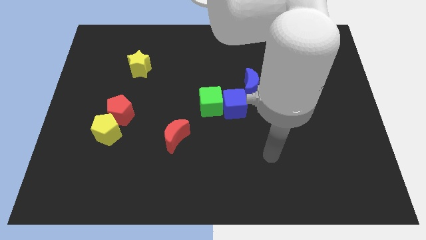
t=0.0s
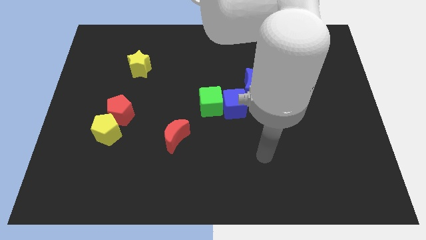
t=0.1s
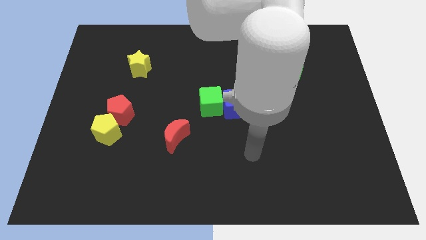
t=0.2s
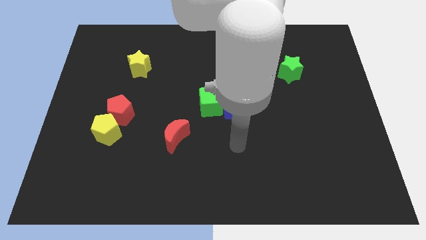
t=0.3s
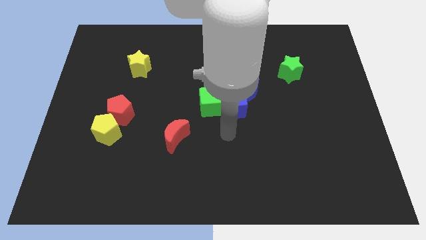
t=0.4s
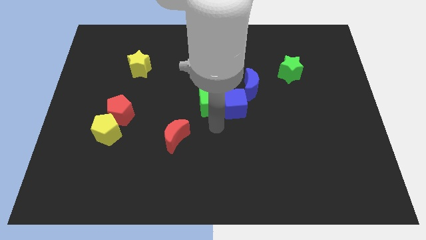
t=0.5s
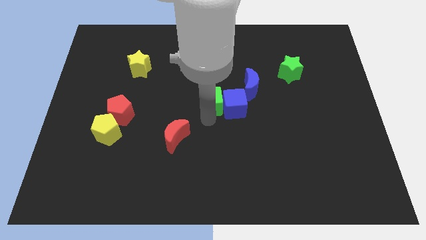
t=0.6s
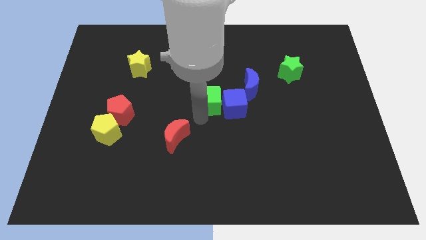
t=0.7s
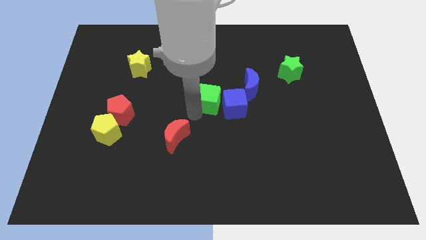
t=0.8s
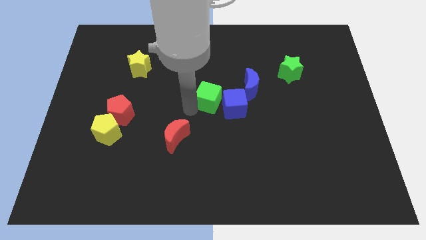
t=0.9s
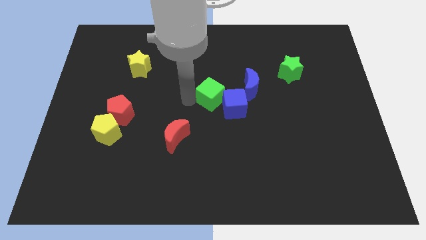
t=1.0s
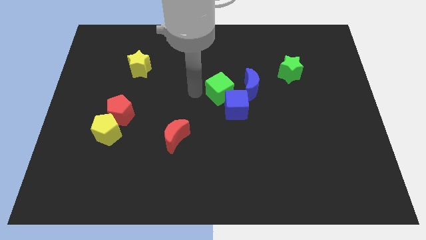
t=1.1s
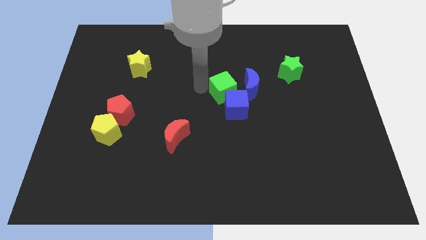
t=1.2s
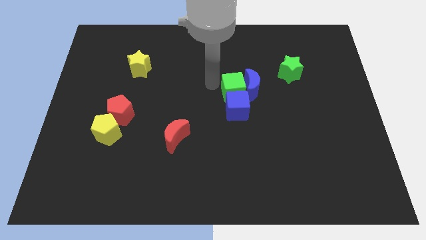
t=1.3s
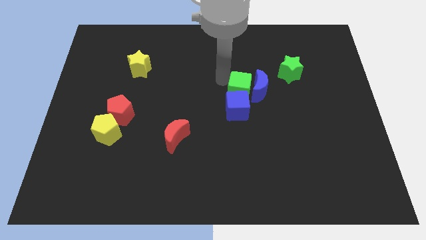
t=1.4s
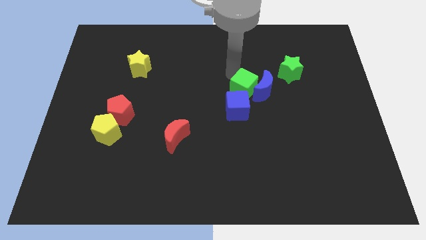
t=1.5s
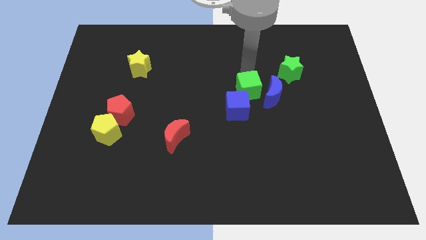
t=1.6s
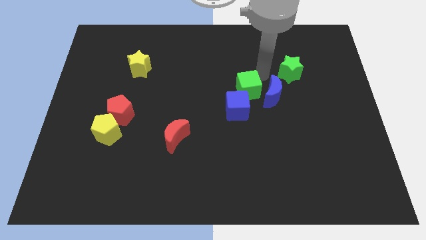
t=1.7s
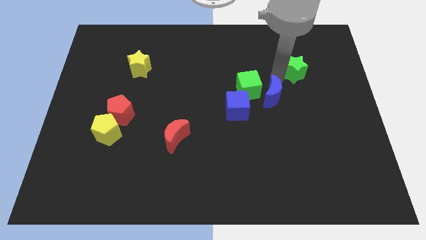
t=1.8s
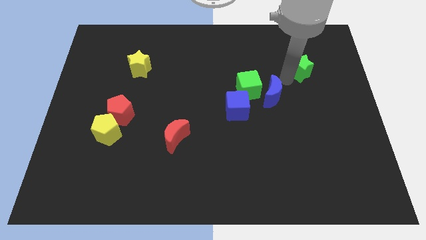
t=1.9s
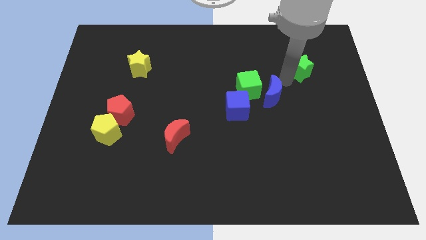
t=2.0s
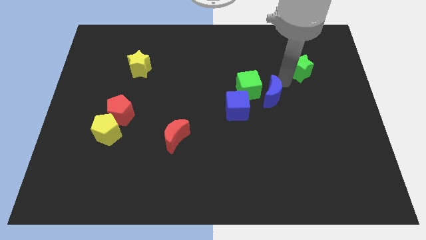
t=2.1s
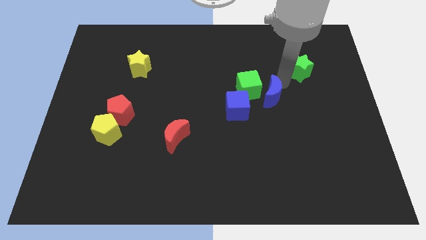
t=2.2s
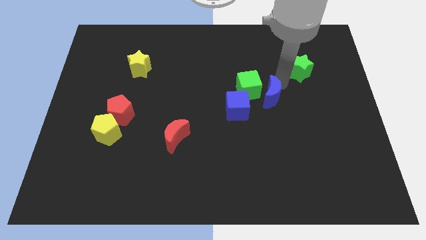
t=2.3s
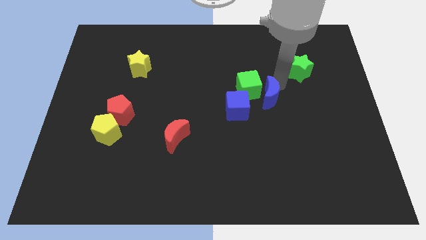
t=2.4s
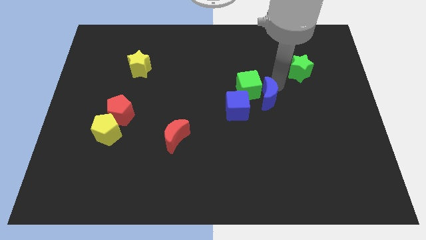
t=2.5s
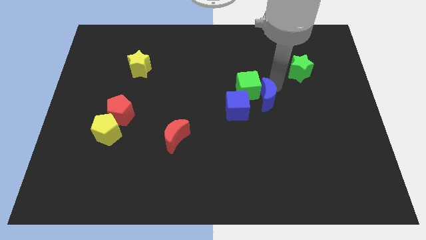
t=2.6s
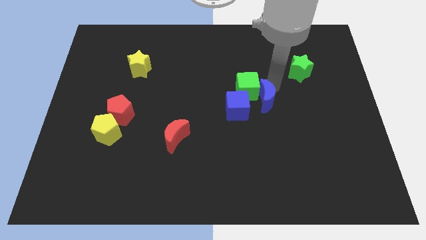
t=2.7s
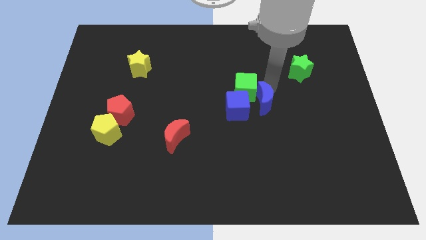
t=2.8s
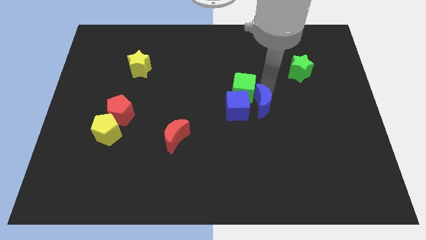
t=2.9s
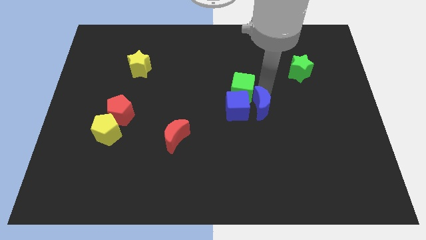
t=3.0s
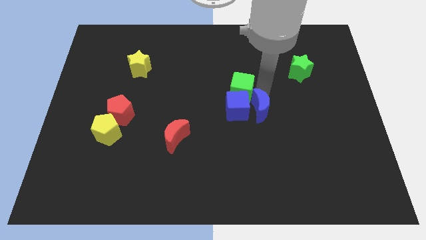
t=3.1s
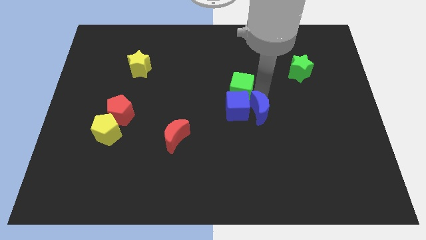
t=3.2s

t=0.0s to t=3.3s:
move the blue moon a little bit downwards

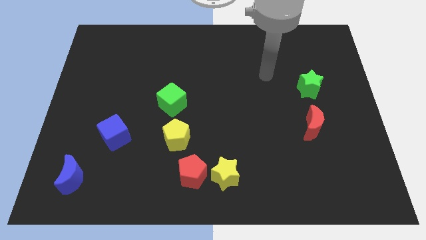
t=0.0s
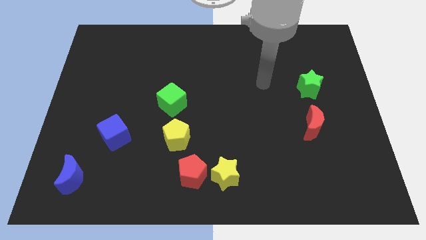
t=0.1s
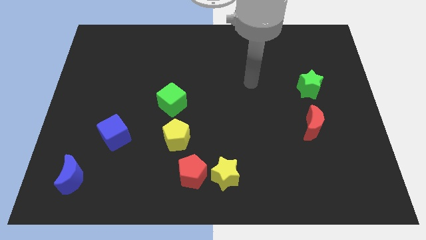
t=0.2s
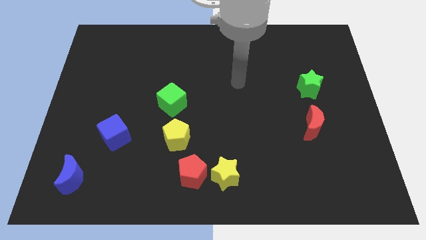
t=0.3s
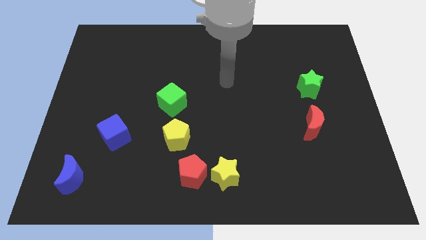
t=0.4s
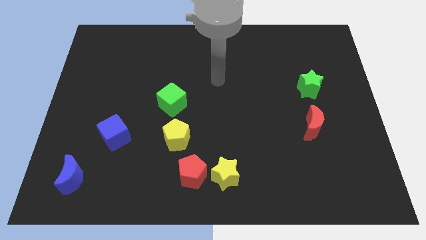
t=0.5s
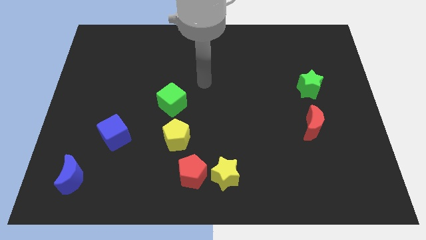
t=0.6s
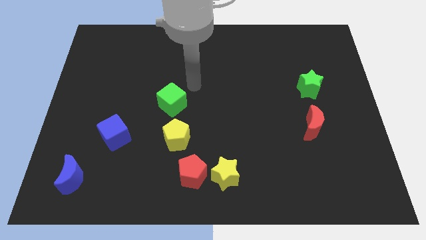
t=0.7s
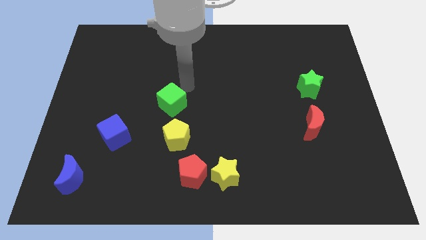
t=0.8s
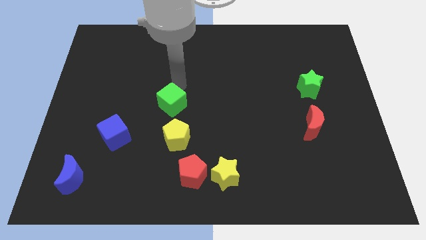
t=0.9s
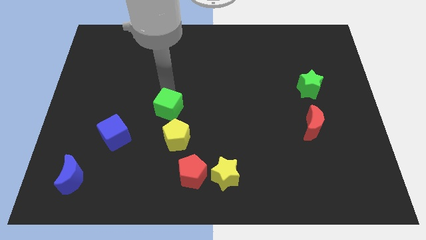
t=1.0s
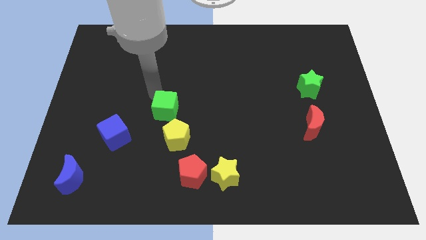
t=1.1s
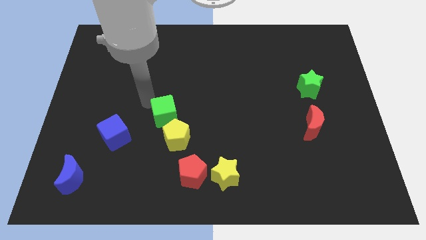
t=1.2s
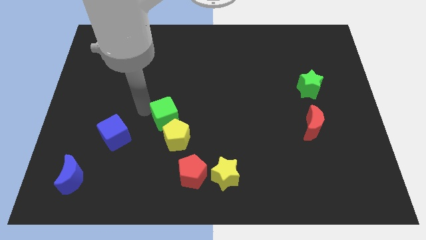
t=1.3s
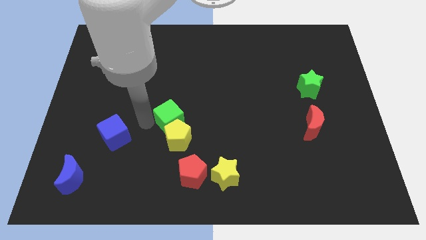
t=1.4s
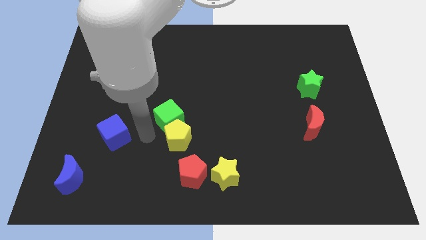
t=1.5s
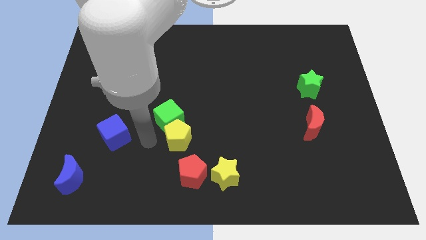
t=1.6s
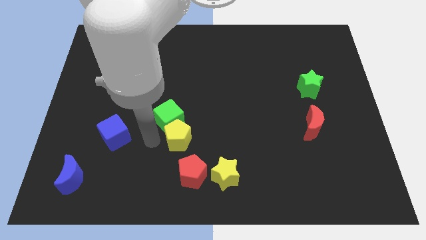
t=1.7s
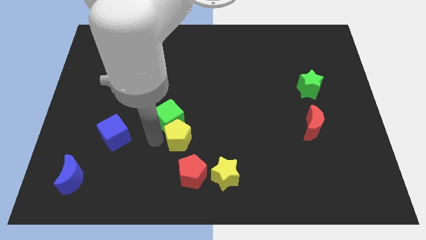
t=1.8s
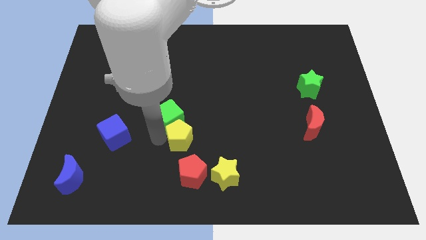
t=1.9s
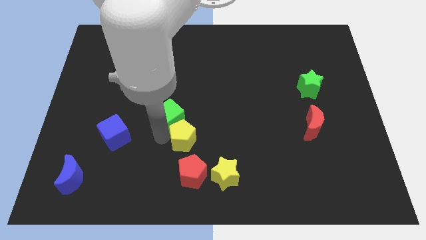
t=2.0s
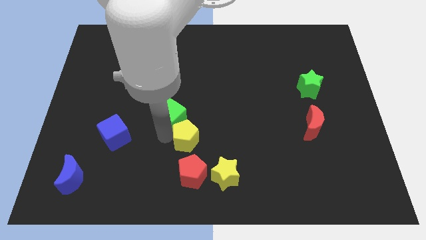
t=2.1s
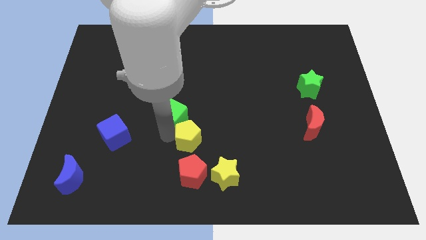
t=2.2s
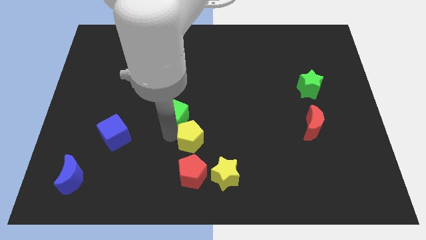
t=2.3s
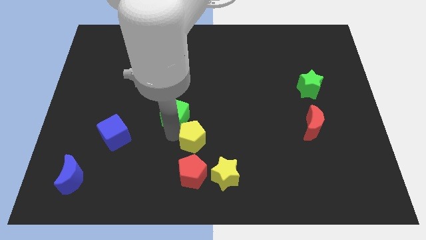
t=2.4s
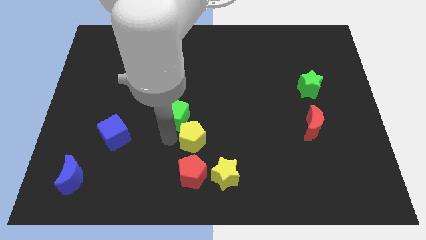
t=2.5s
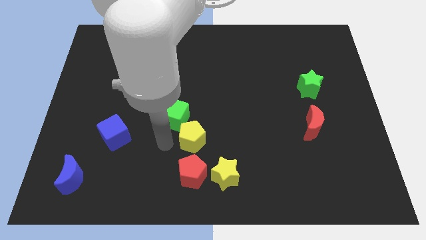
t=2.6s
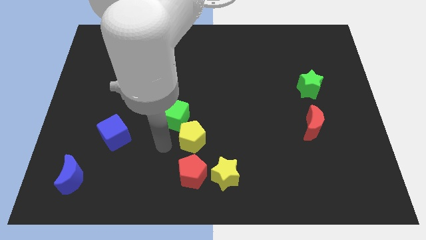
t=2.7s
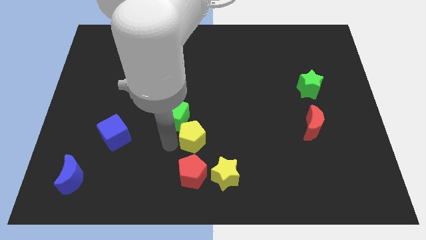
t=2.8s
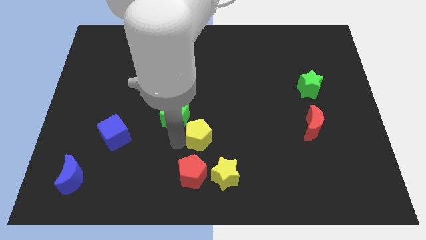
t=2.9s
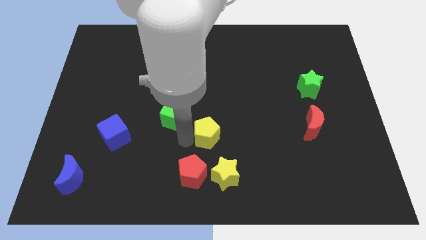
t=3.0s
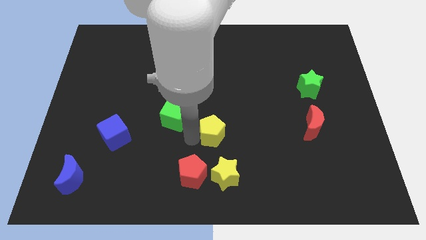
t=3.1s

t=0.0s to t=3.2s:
slightly move the yellow pentagon right

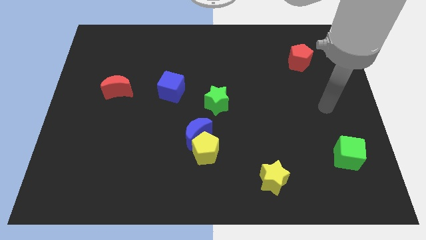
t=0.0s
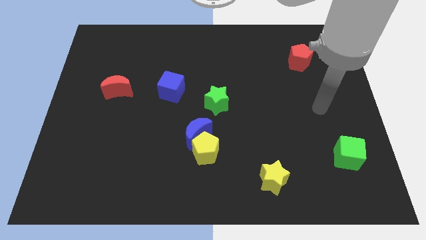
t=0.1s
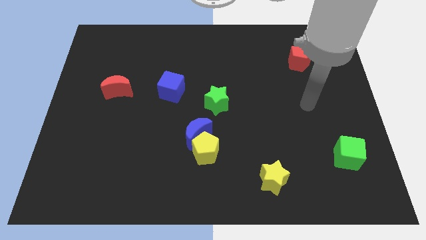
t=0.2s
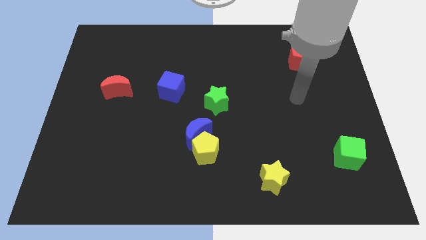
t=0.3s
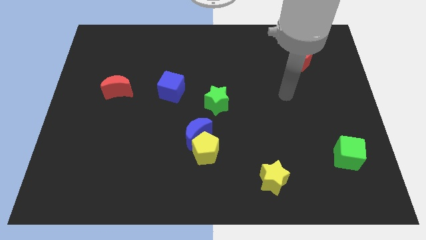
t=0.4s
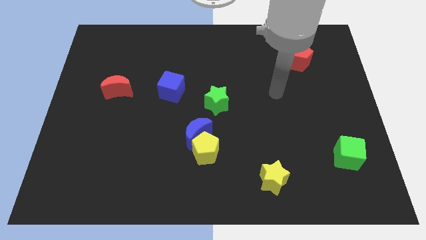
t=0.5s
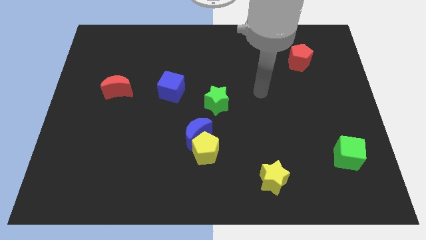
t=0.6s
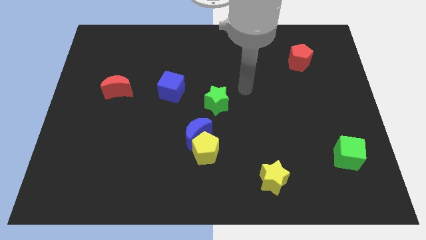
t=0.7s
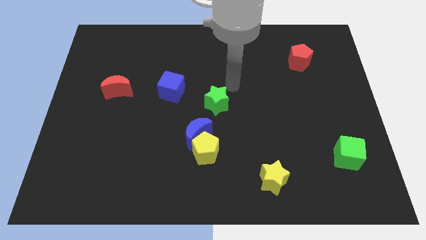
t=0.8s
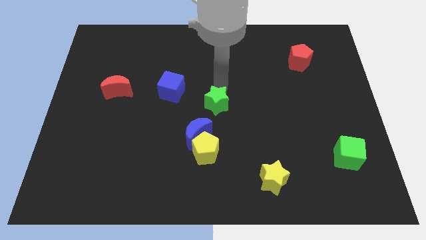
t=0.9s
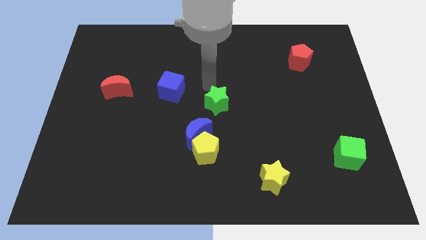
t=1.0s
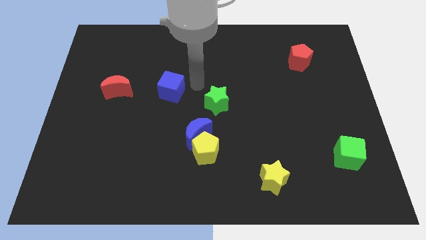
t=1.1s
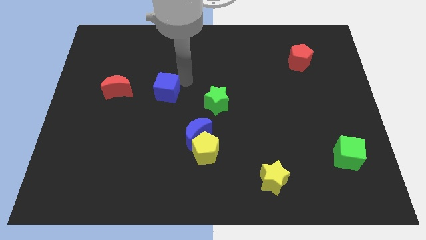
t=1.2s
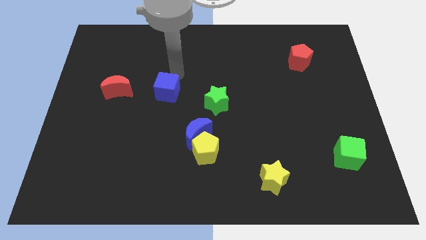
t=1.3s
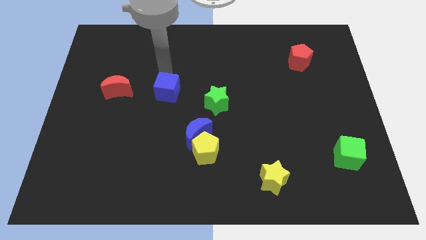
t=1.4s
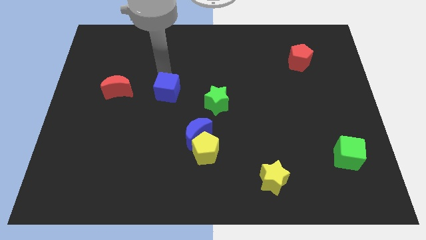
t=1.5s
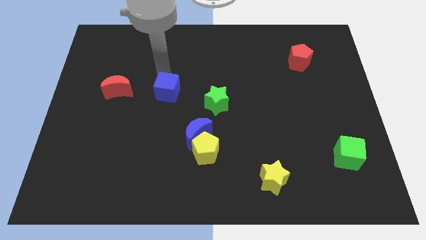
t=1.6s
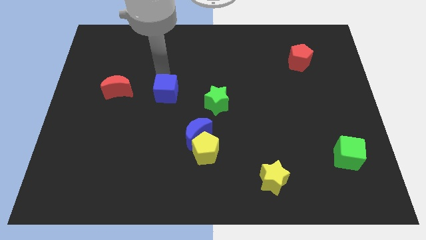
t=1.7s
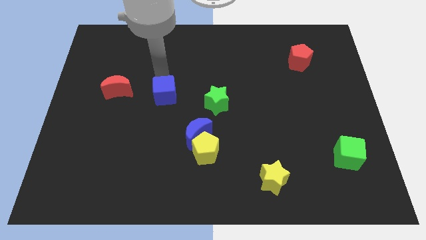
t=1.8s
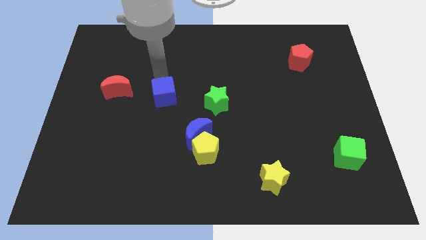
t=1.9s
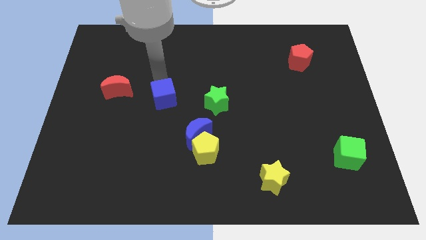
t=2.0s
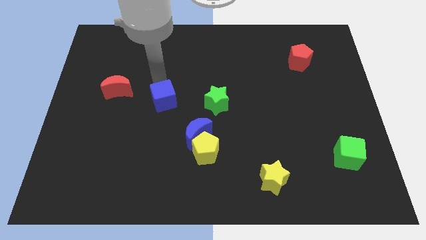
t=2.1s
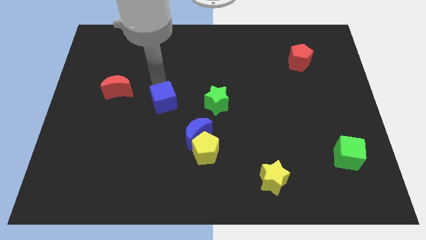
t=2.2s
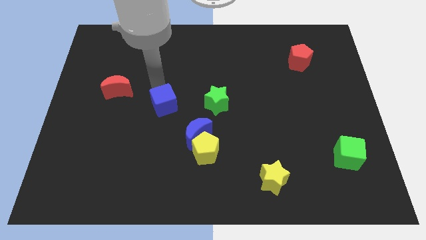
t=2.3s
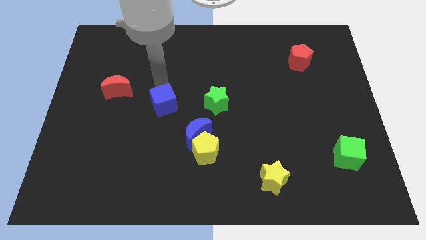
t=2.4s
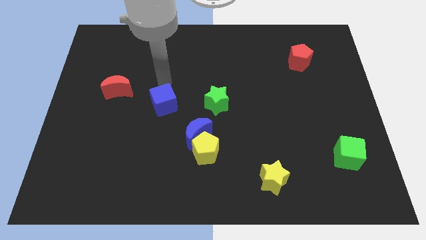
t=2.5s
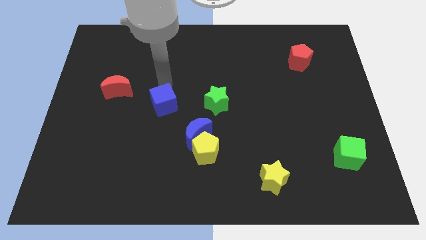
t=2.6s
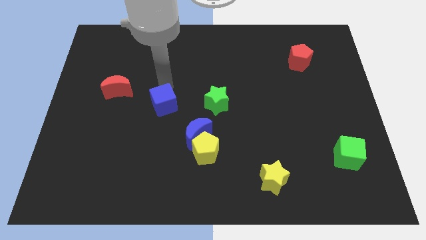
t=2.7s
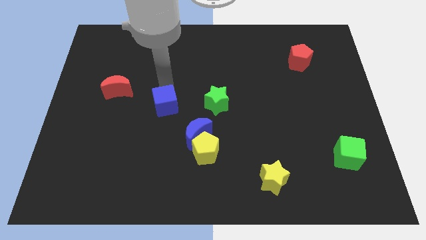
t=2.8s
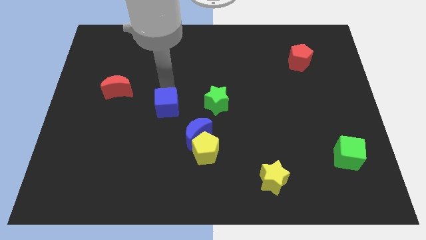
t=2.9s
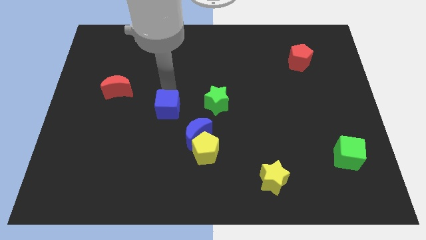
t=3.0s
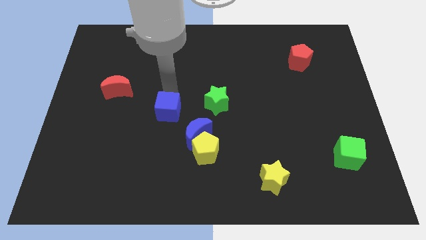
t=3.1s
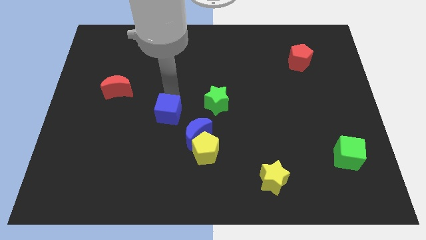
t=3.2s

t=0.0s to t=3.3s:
slightly move the blue cube downwards
